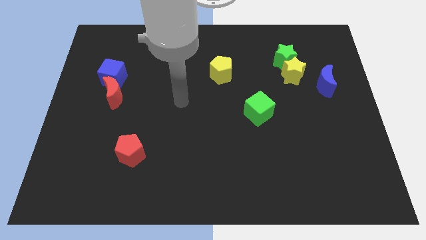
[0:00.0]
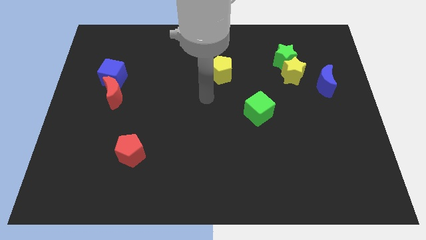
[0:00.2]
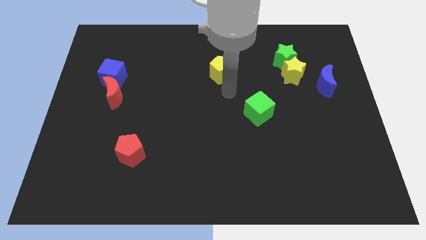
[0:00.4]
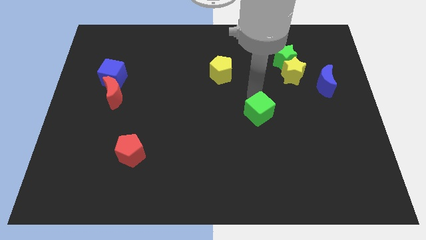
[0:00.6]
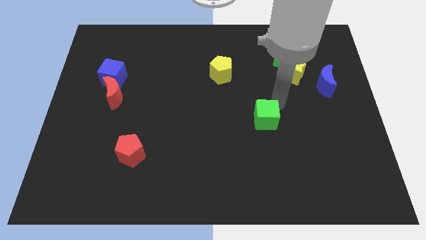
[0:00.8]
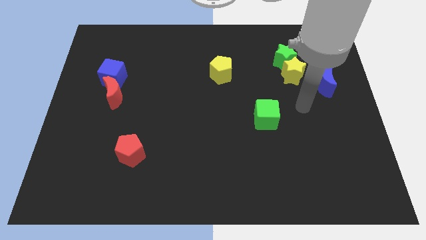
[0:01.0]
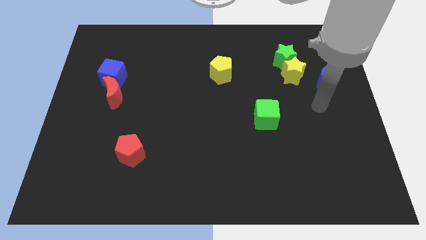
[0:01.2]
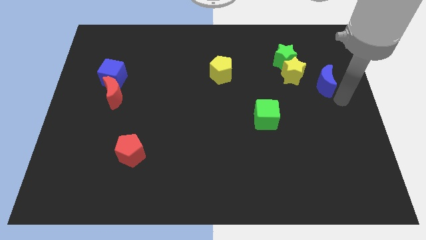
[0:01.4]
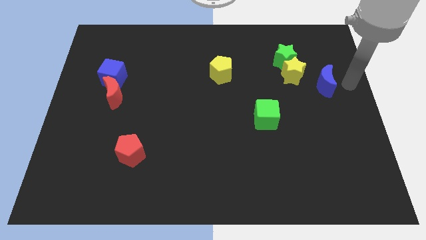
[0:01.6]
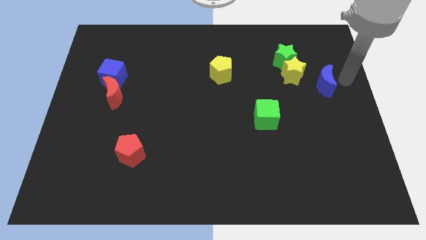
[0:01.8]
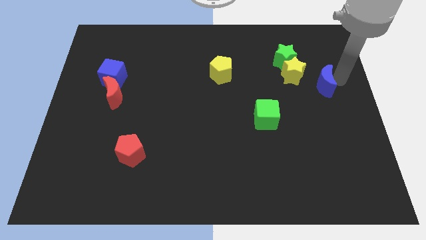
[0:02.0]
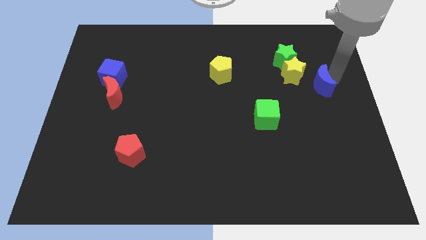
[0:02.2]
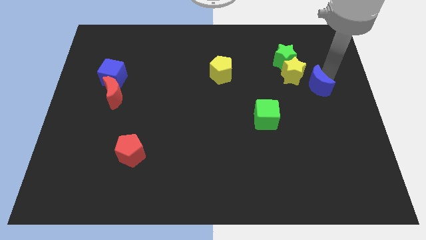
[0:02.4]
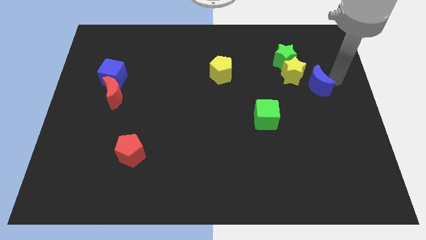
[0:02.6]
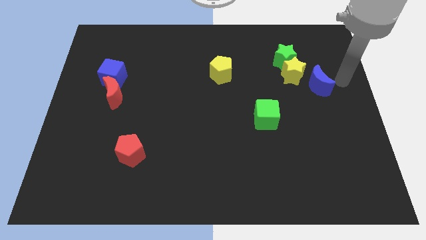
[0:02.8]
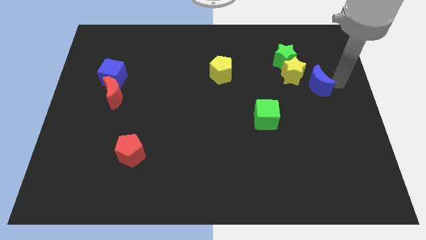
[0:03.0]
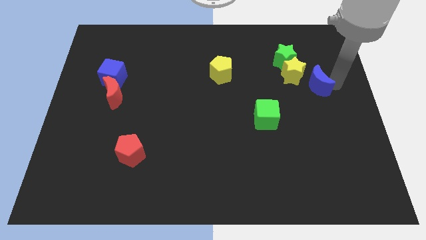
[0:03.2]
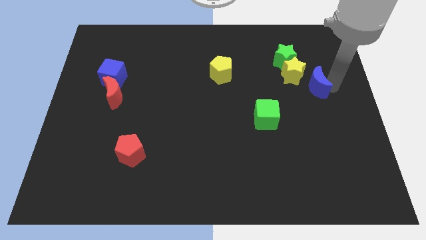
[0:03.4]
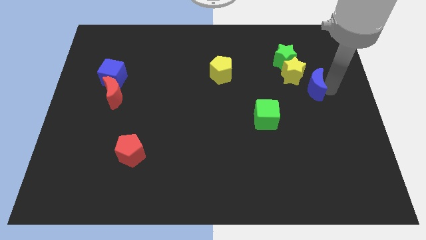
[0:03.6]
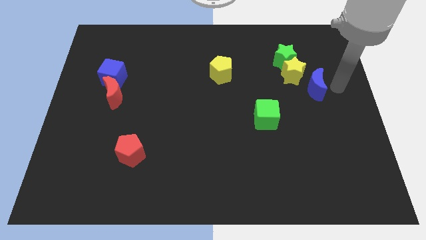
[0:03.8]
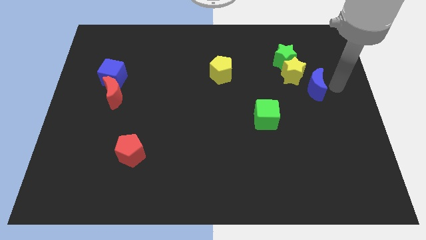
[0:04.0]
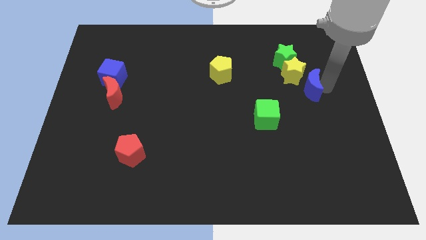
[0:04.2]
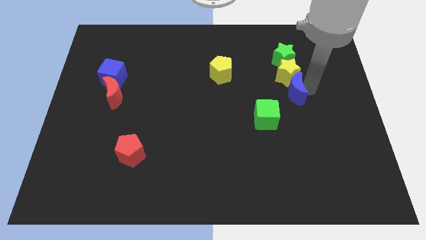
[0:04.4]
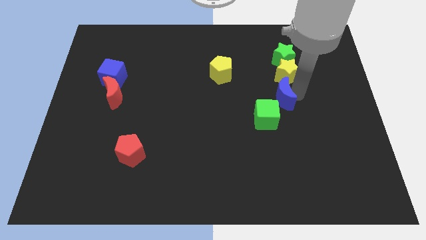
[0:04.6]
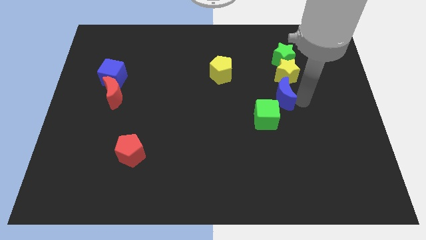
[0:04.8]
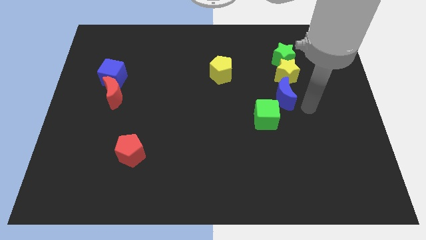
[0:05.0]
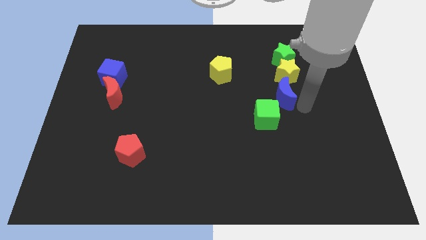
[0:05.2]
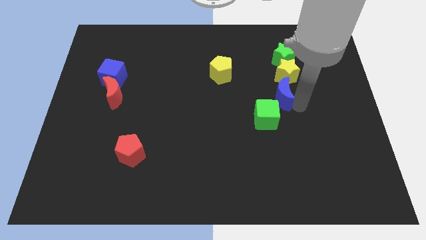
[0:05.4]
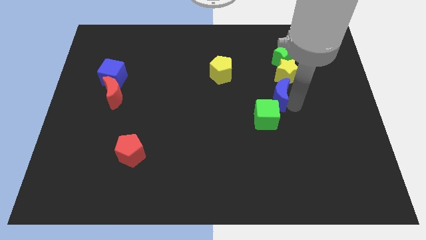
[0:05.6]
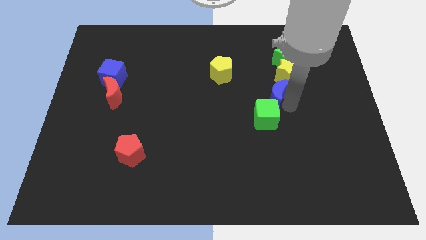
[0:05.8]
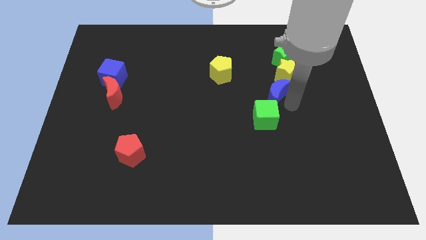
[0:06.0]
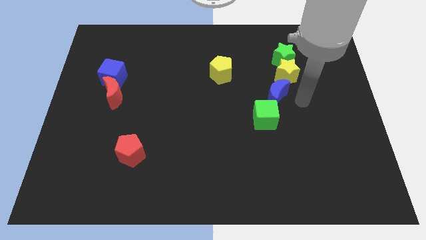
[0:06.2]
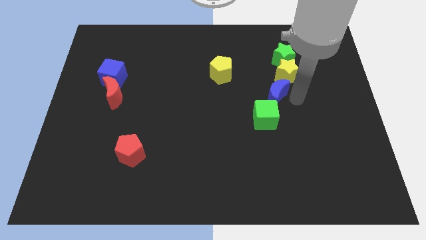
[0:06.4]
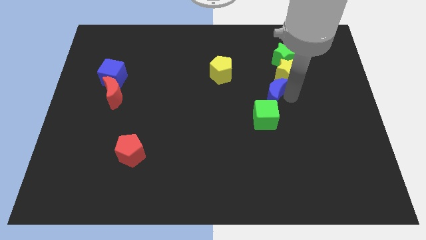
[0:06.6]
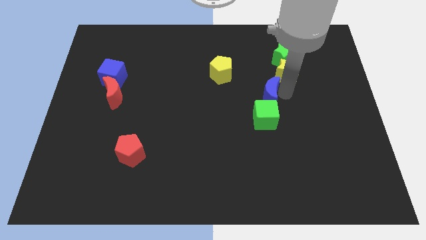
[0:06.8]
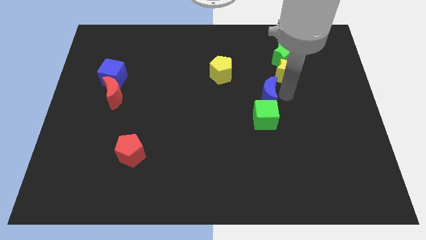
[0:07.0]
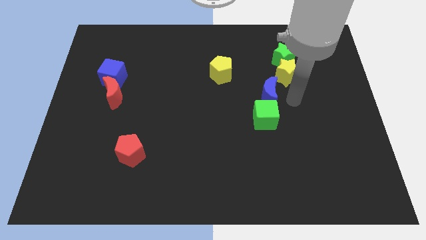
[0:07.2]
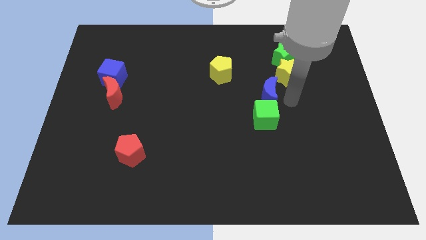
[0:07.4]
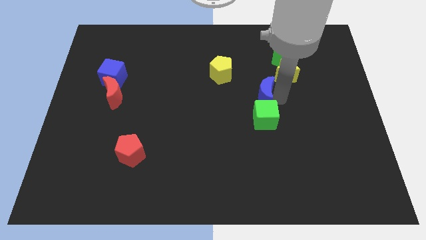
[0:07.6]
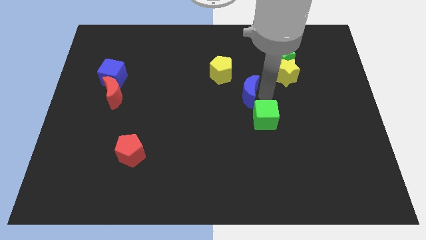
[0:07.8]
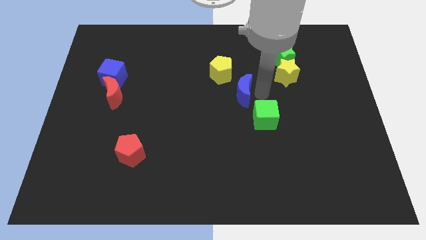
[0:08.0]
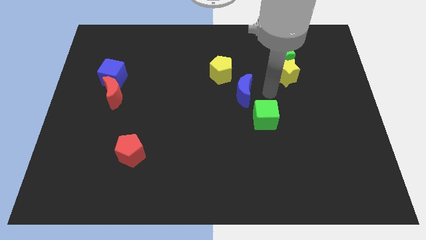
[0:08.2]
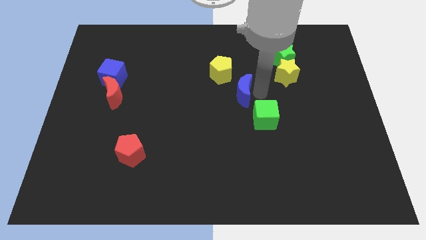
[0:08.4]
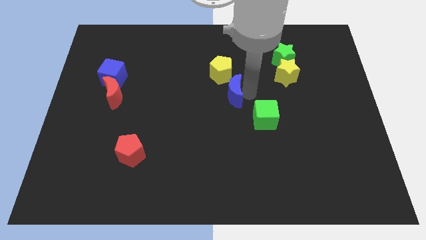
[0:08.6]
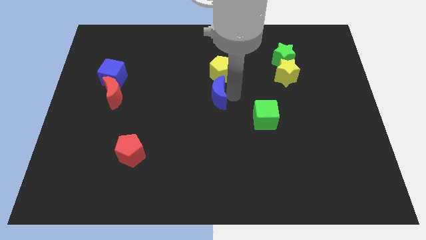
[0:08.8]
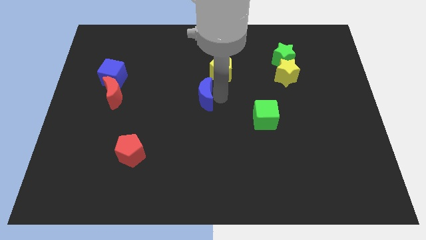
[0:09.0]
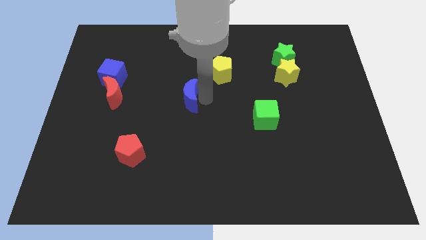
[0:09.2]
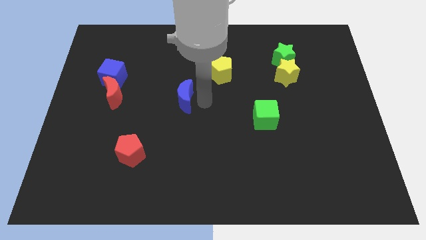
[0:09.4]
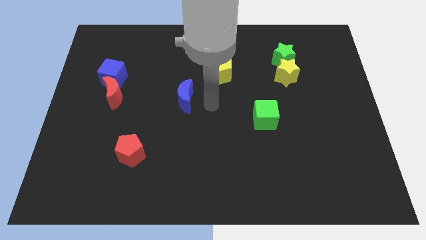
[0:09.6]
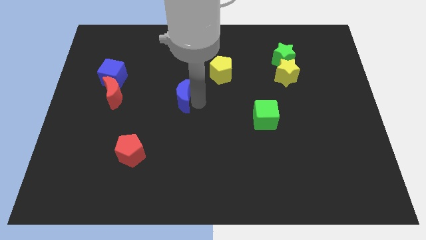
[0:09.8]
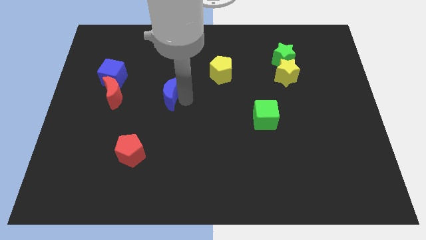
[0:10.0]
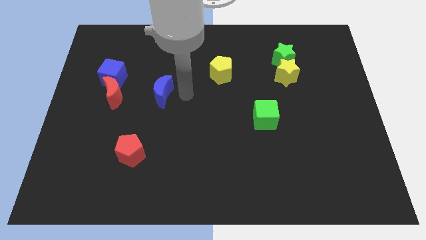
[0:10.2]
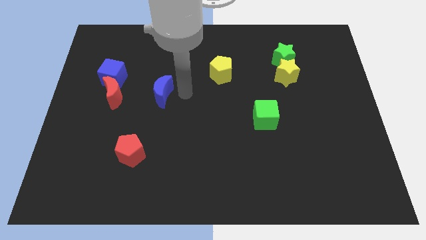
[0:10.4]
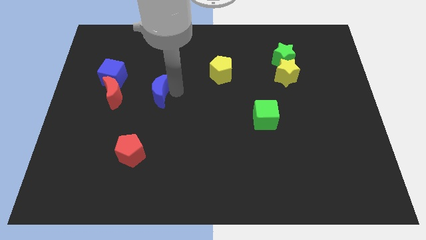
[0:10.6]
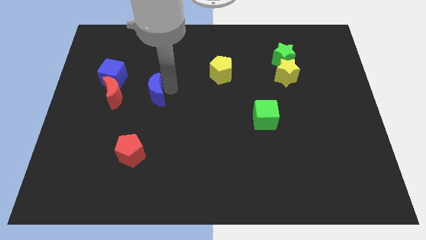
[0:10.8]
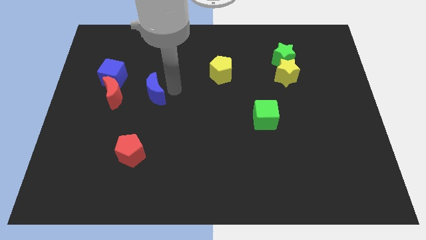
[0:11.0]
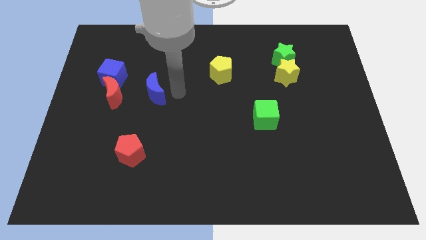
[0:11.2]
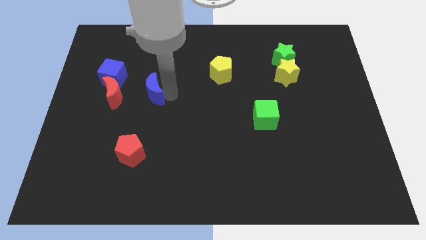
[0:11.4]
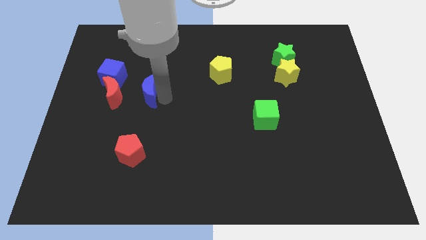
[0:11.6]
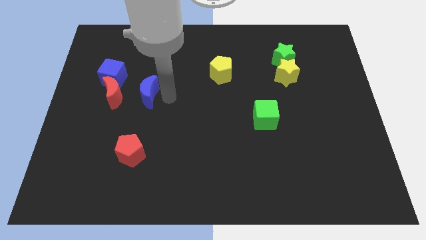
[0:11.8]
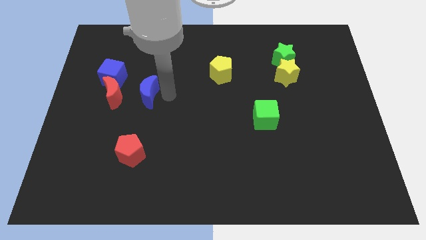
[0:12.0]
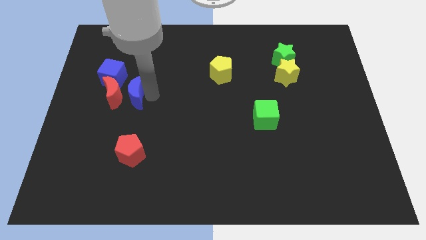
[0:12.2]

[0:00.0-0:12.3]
move the blue moon to the red moon

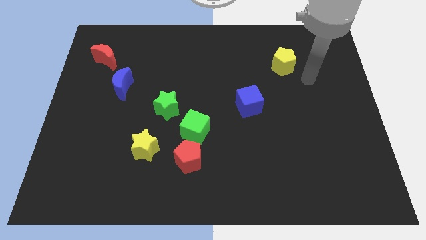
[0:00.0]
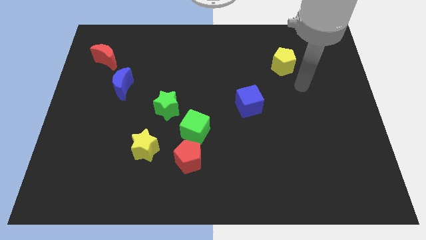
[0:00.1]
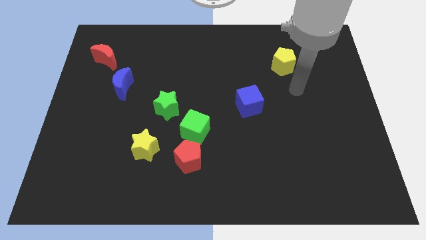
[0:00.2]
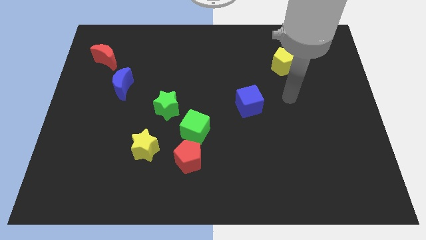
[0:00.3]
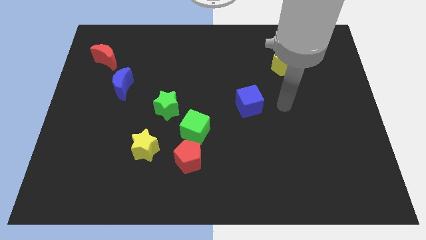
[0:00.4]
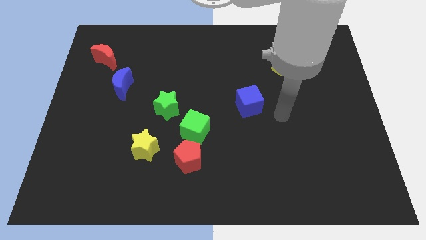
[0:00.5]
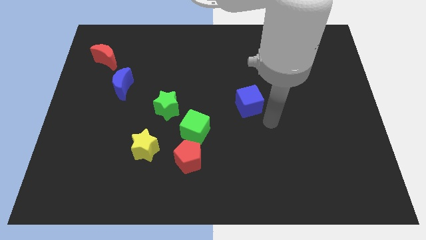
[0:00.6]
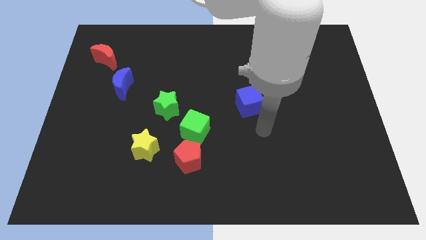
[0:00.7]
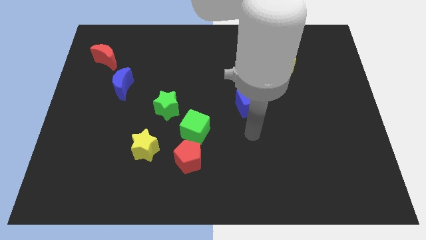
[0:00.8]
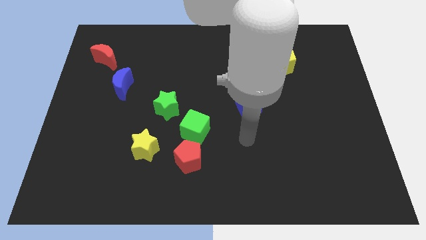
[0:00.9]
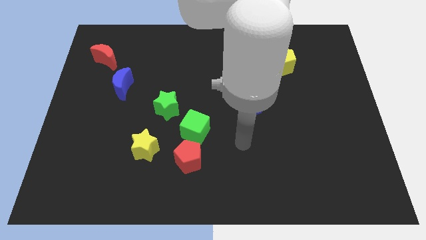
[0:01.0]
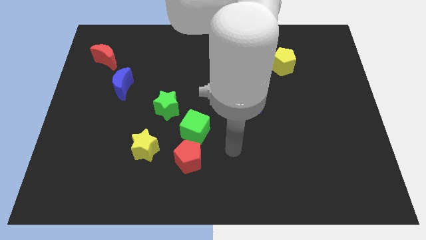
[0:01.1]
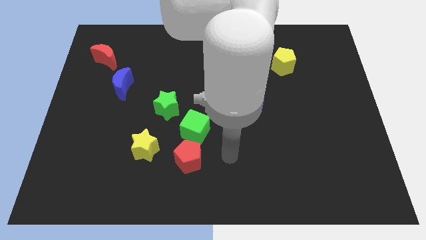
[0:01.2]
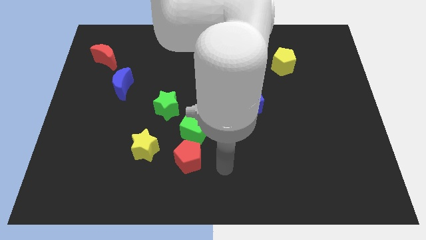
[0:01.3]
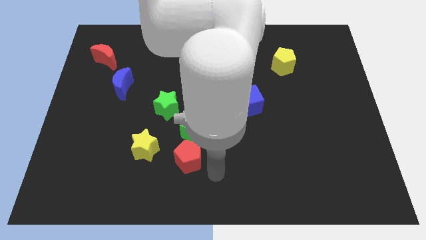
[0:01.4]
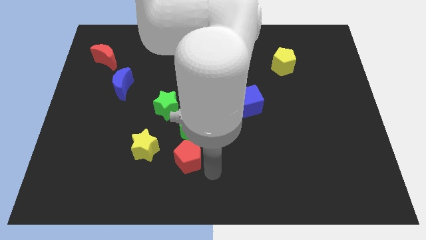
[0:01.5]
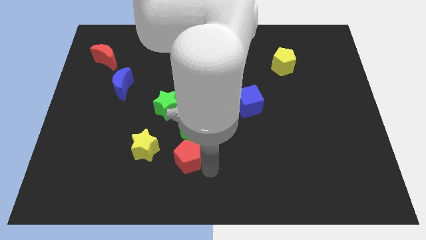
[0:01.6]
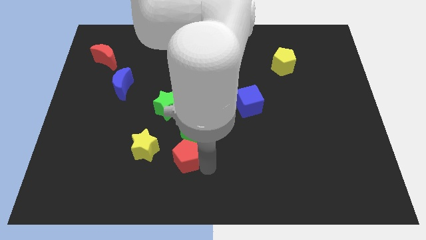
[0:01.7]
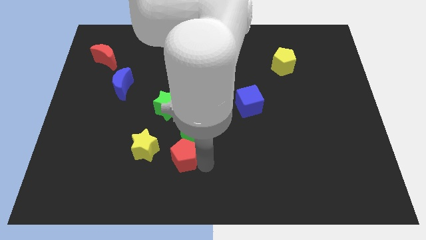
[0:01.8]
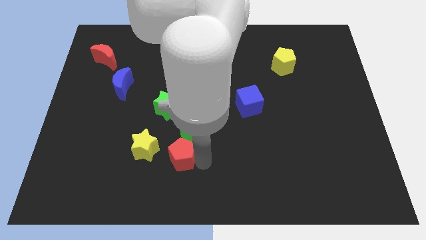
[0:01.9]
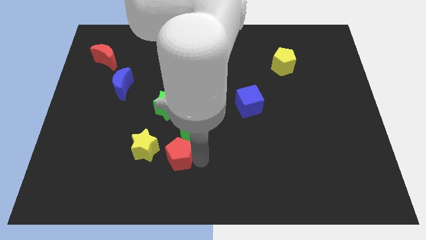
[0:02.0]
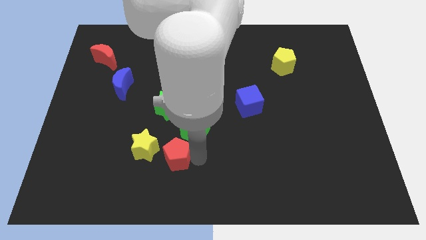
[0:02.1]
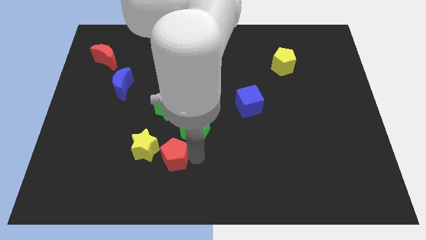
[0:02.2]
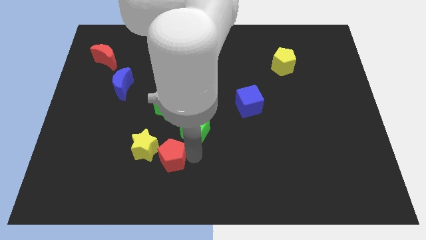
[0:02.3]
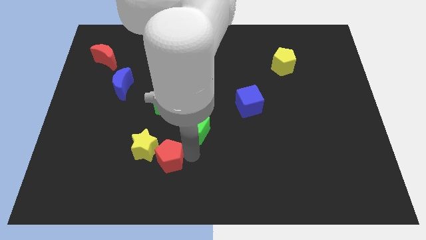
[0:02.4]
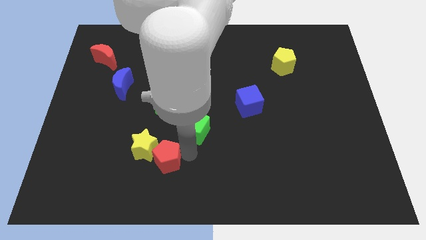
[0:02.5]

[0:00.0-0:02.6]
push the red pentagon to the yellow star
